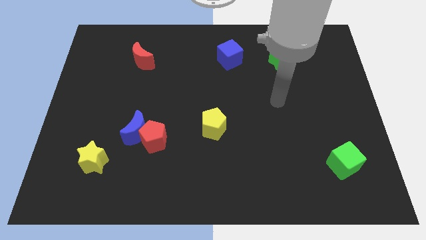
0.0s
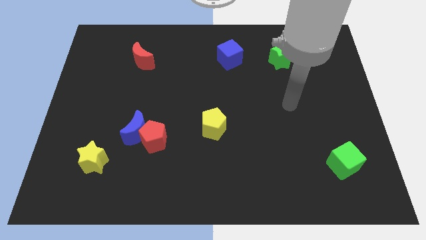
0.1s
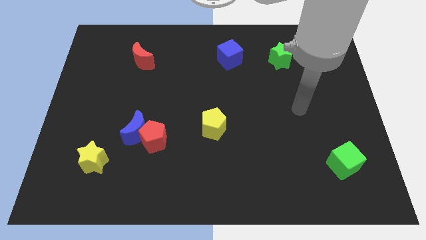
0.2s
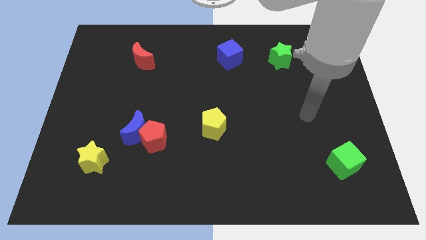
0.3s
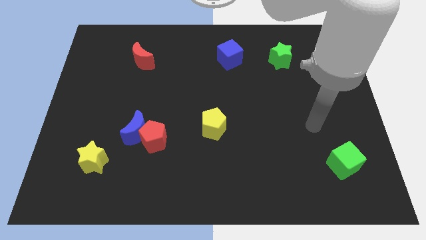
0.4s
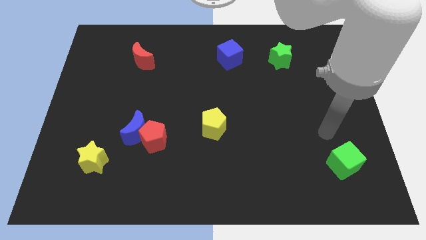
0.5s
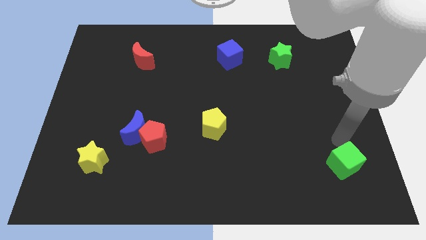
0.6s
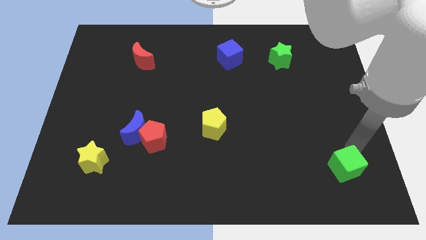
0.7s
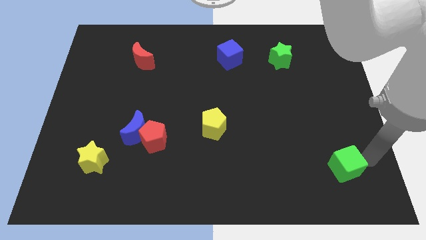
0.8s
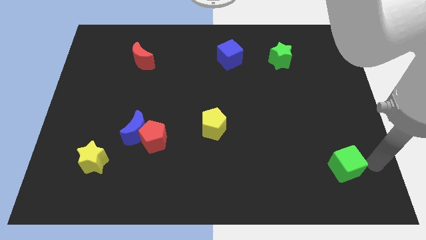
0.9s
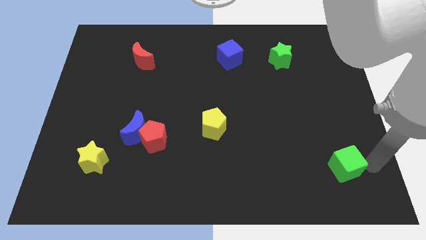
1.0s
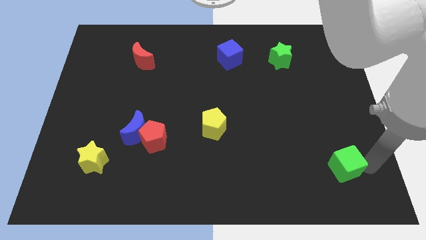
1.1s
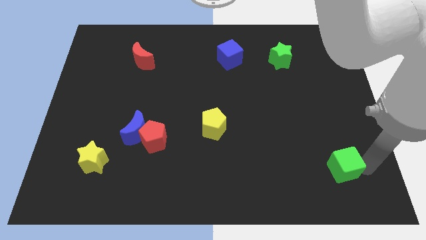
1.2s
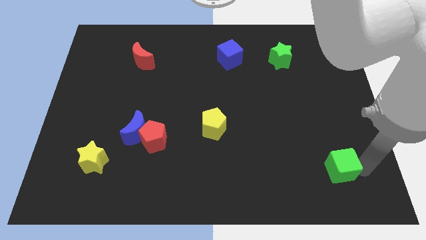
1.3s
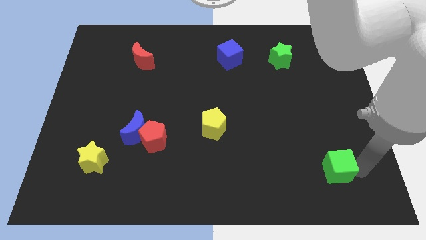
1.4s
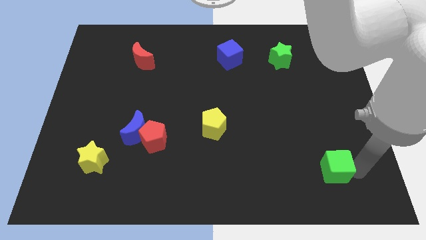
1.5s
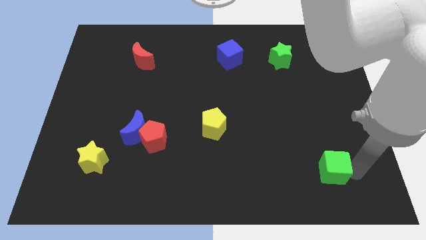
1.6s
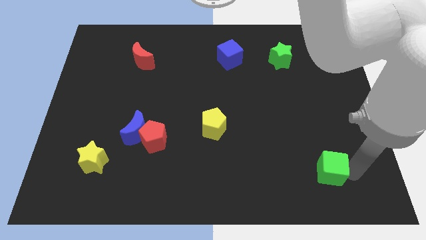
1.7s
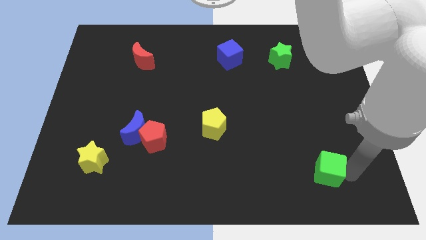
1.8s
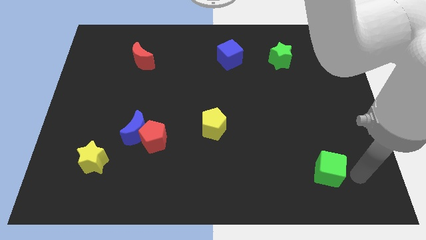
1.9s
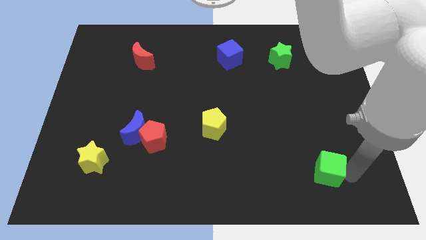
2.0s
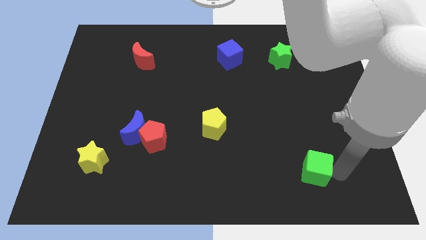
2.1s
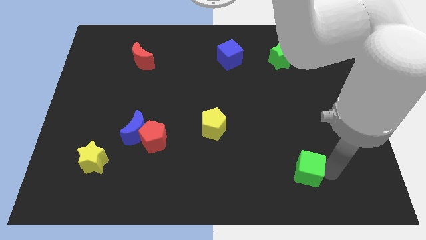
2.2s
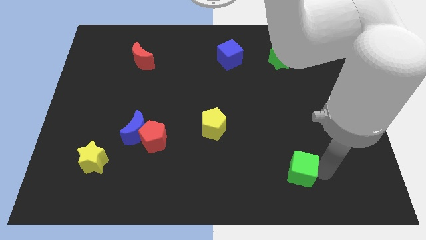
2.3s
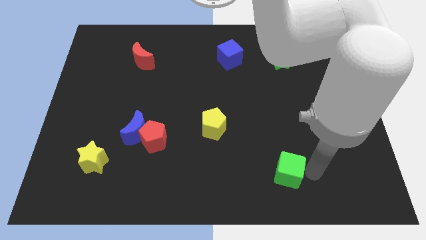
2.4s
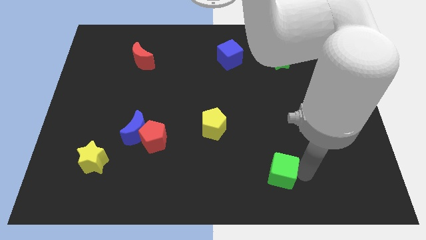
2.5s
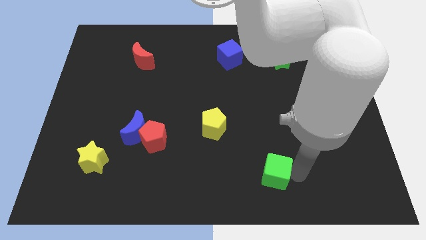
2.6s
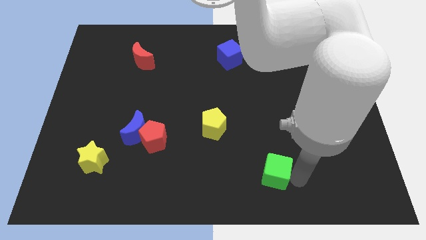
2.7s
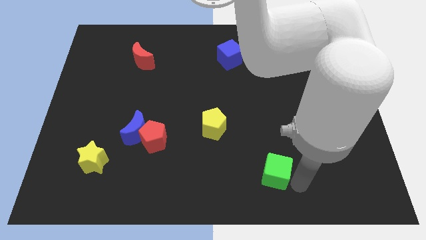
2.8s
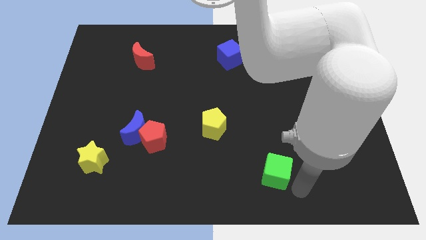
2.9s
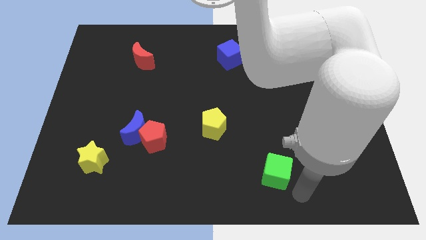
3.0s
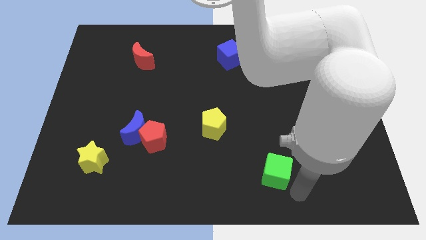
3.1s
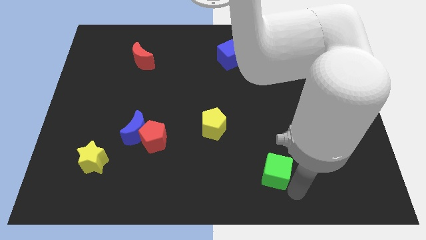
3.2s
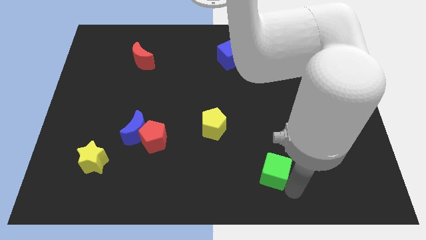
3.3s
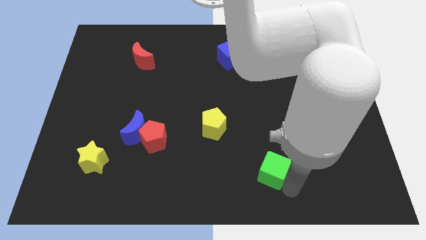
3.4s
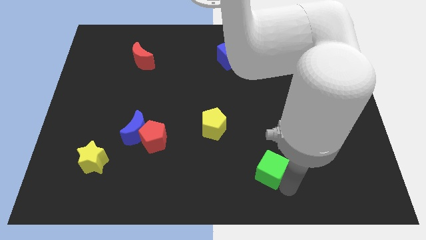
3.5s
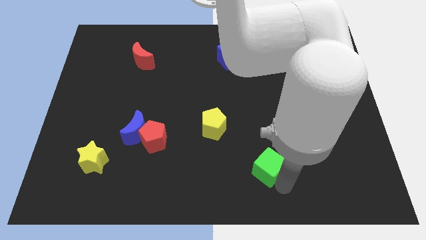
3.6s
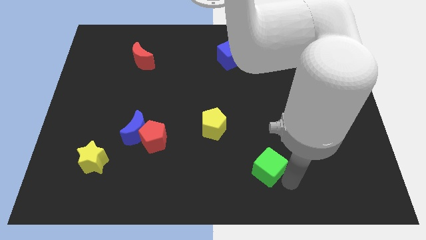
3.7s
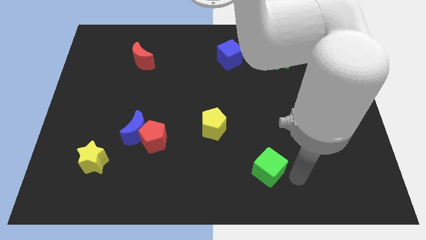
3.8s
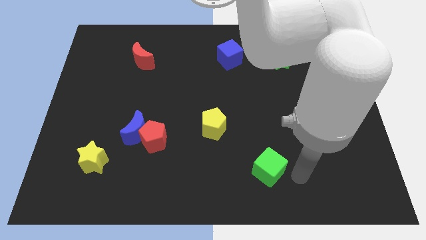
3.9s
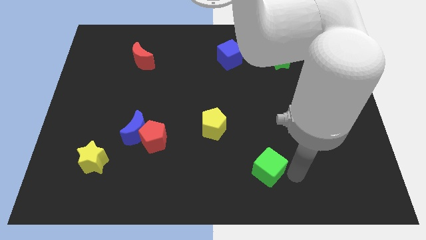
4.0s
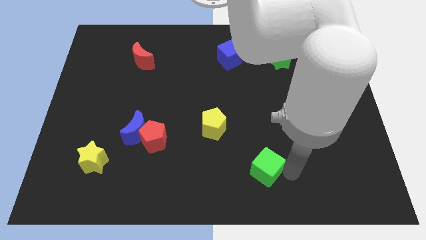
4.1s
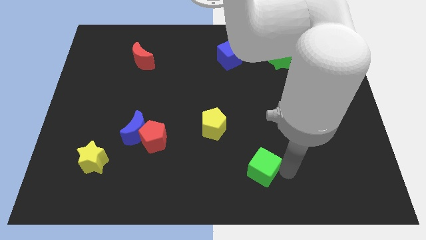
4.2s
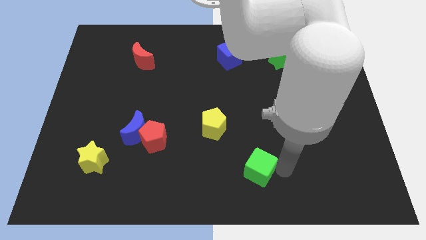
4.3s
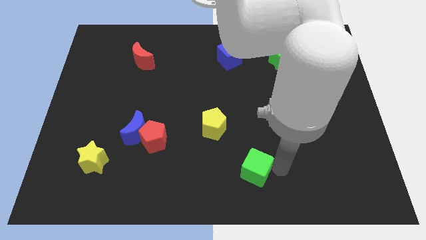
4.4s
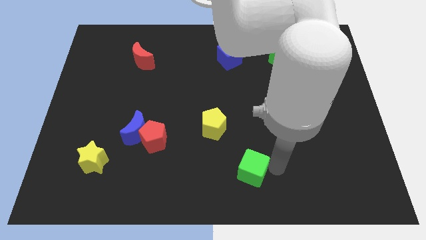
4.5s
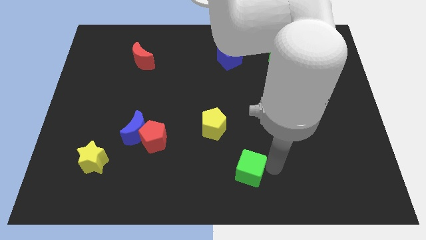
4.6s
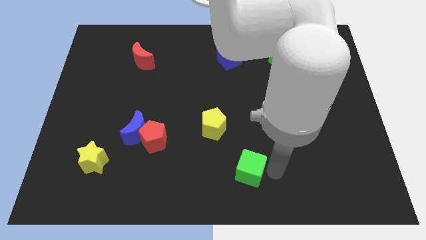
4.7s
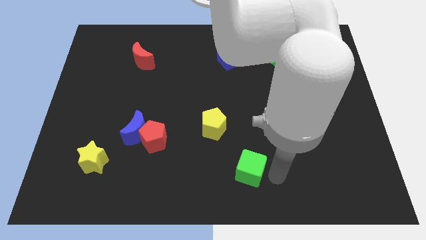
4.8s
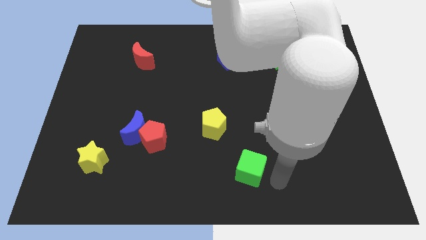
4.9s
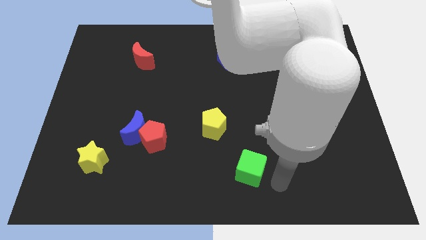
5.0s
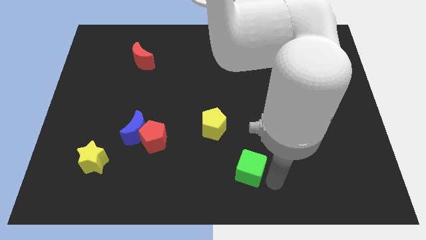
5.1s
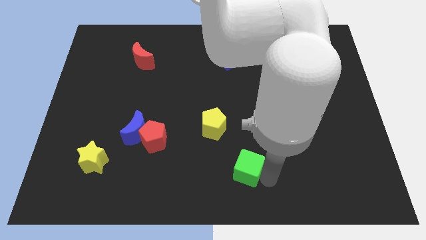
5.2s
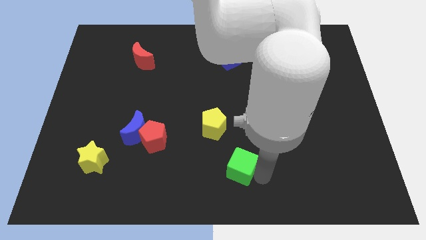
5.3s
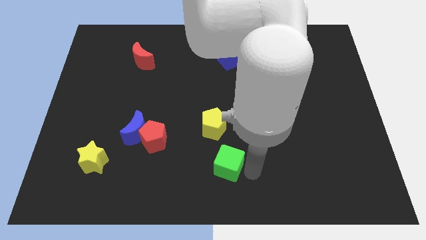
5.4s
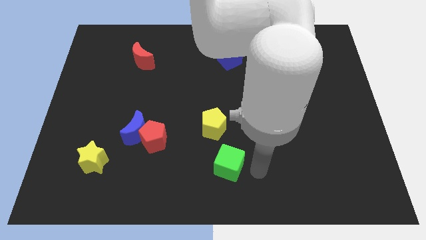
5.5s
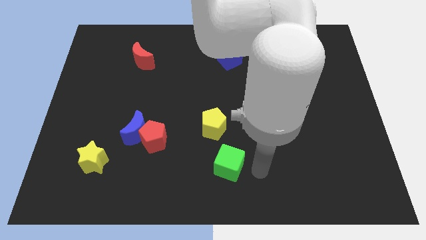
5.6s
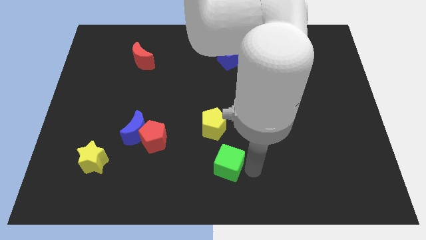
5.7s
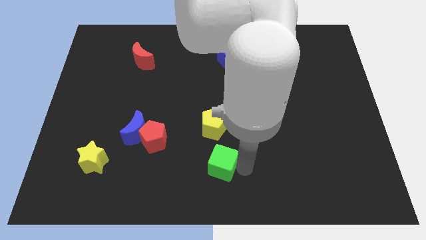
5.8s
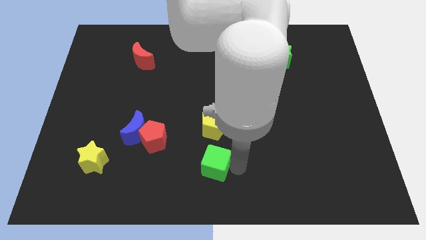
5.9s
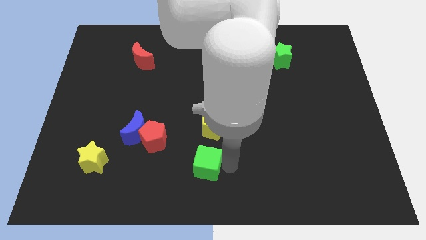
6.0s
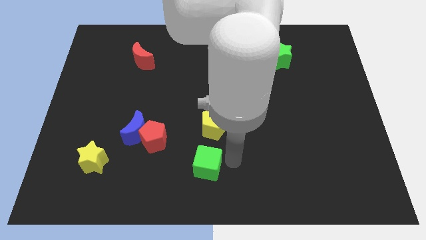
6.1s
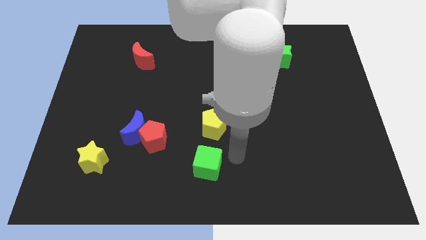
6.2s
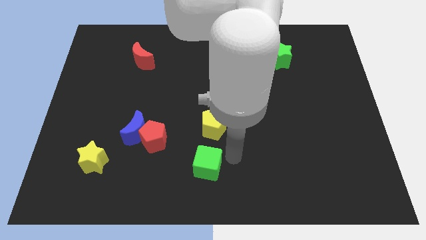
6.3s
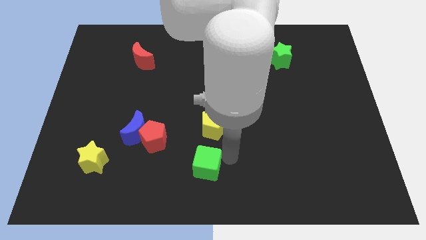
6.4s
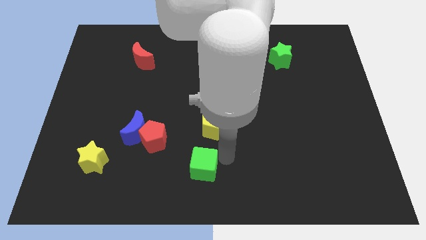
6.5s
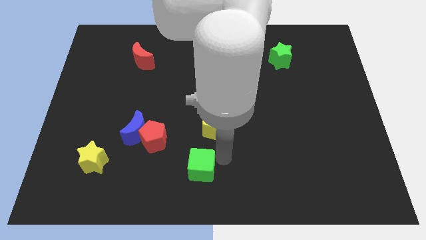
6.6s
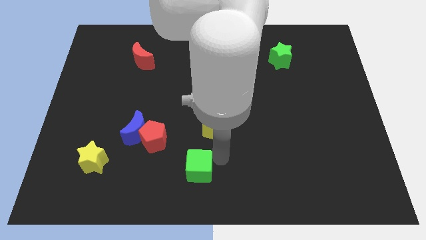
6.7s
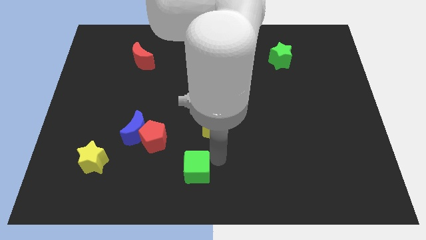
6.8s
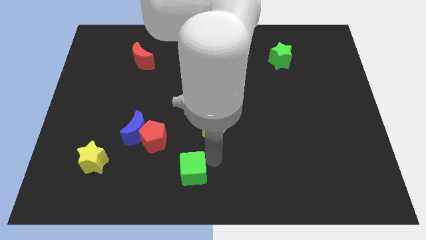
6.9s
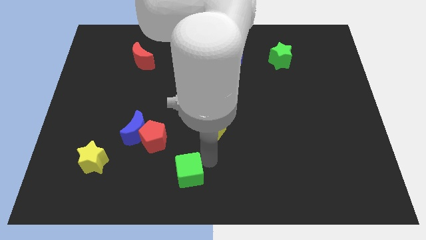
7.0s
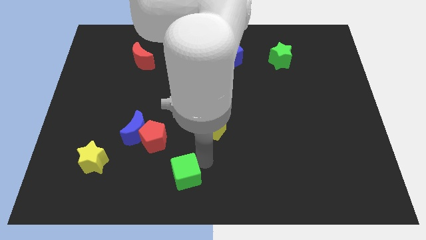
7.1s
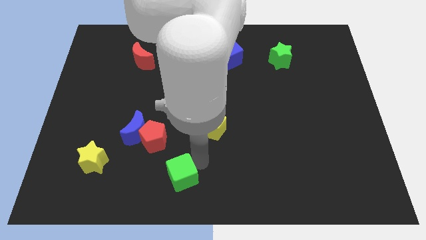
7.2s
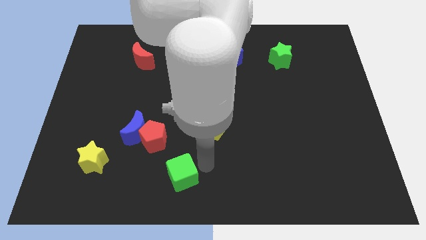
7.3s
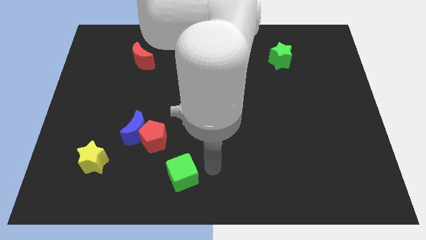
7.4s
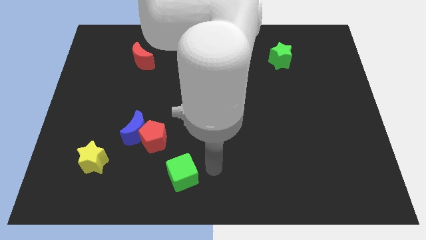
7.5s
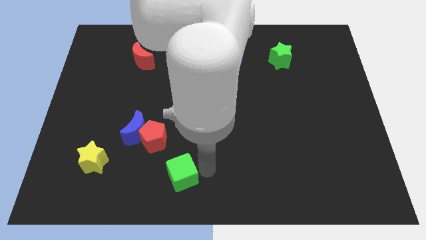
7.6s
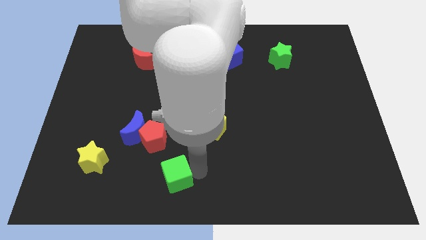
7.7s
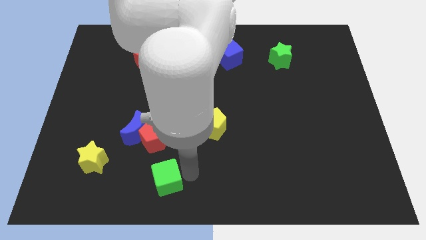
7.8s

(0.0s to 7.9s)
move the green cube to the bottom side of the red pentagon
